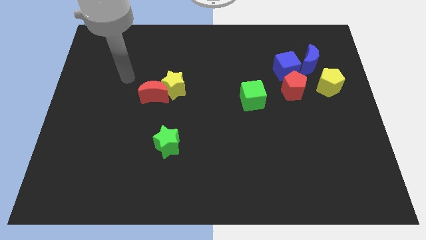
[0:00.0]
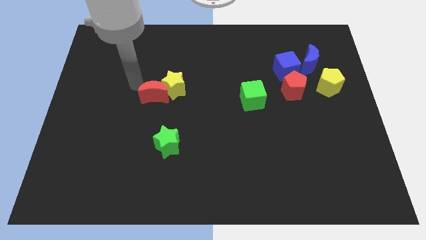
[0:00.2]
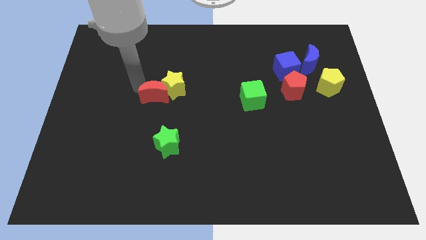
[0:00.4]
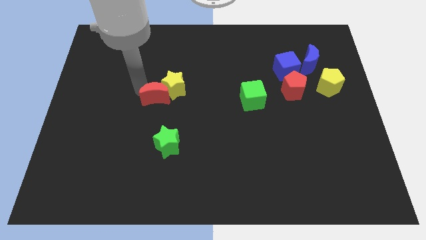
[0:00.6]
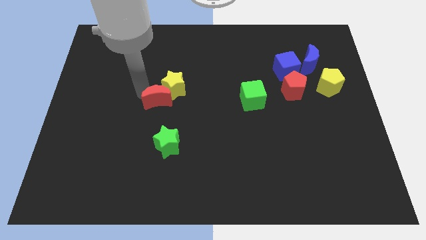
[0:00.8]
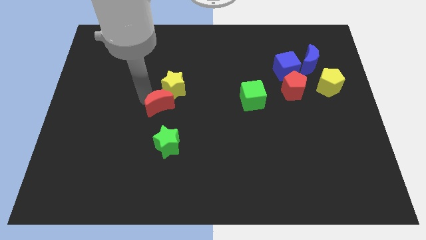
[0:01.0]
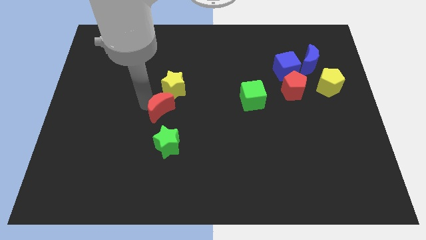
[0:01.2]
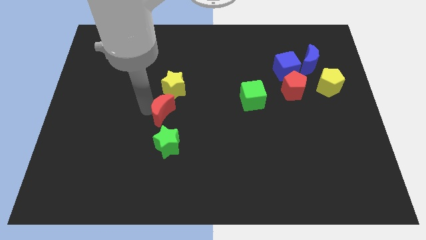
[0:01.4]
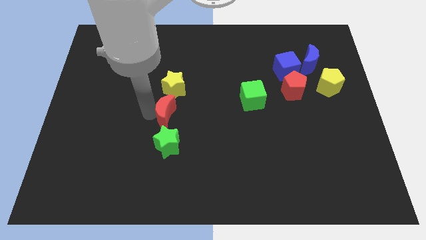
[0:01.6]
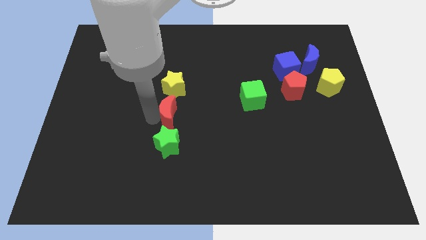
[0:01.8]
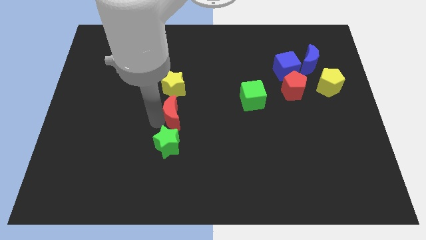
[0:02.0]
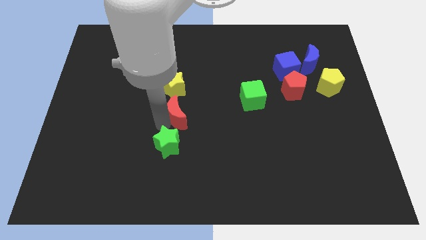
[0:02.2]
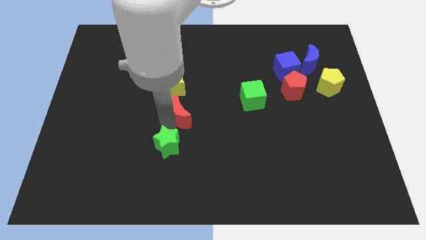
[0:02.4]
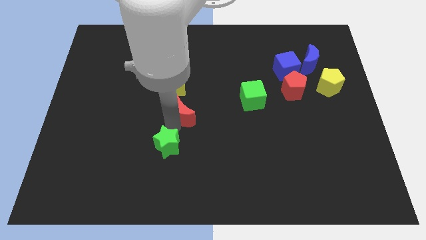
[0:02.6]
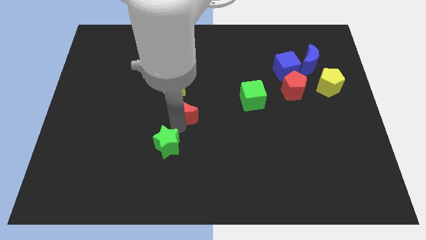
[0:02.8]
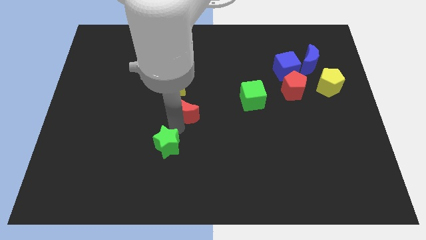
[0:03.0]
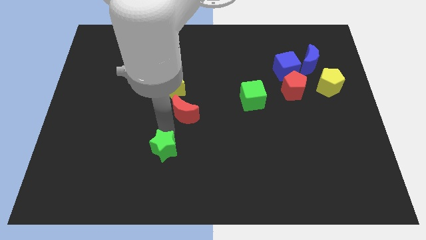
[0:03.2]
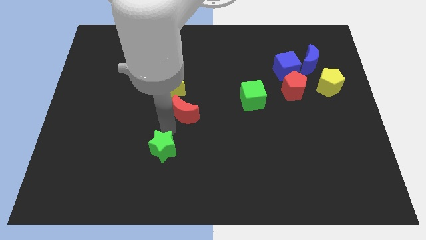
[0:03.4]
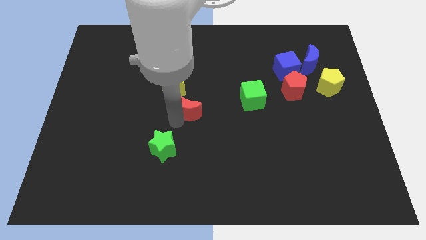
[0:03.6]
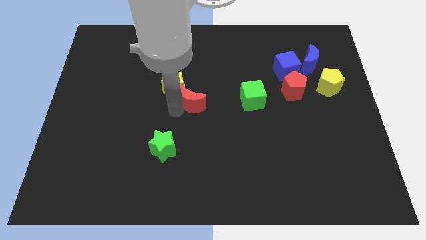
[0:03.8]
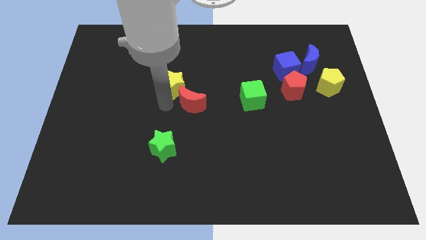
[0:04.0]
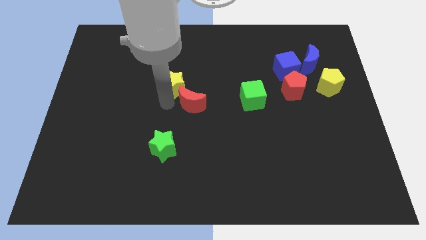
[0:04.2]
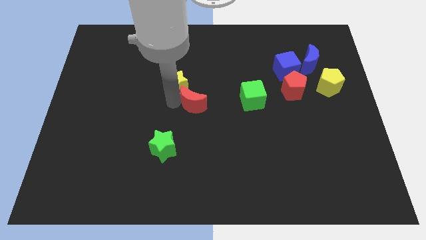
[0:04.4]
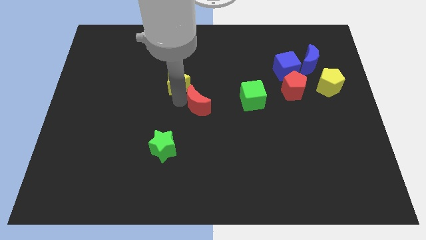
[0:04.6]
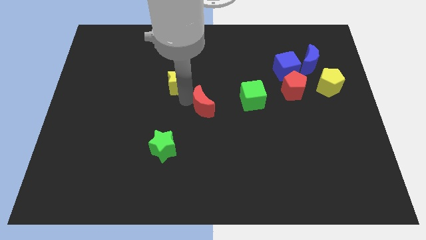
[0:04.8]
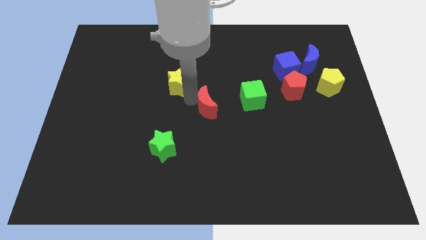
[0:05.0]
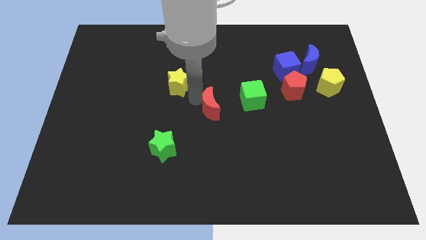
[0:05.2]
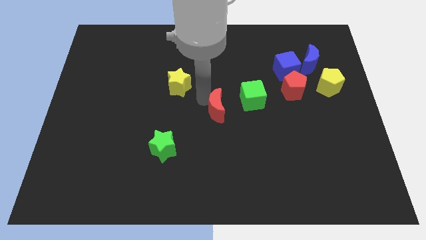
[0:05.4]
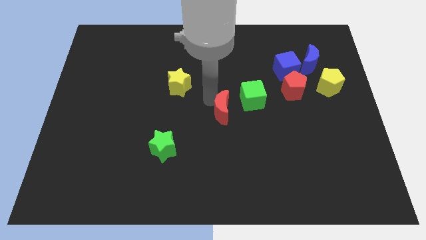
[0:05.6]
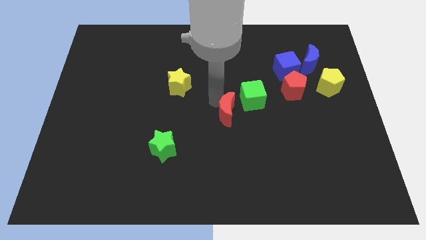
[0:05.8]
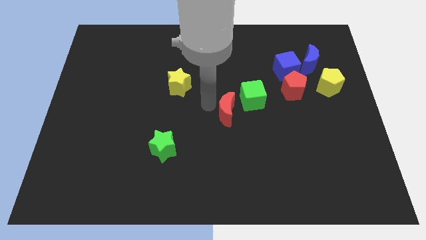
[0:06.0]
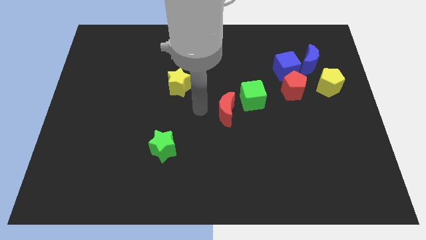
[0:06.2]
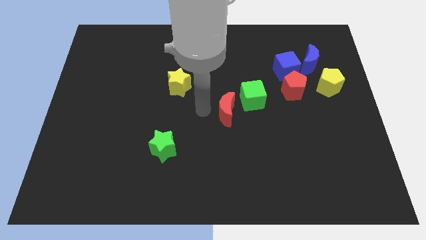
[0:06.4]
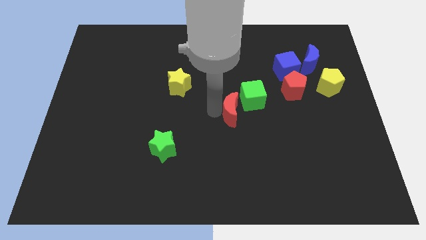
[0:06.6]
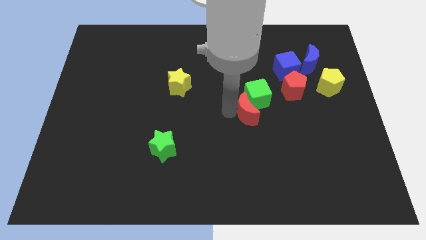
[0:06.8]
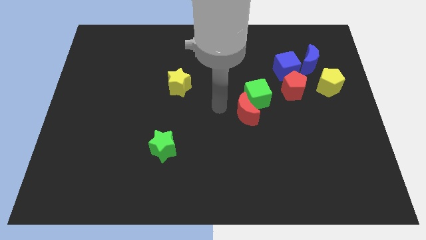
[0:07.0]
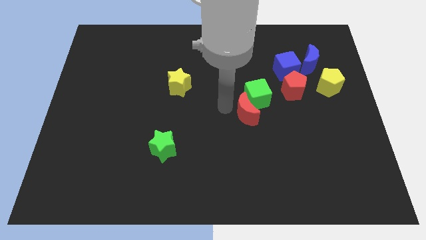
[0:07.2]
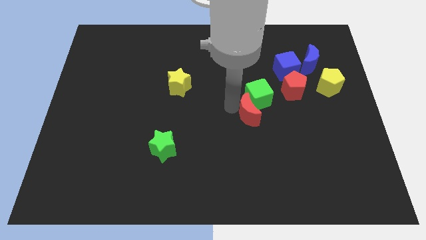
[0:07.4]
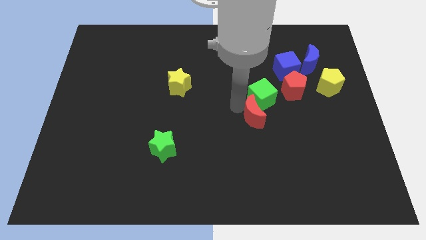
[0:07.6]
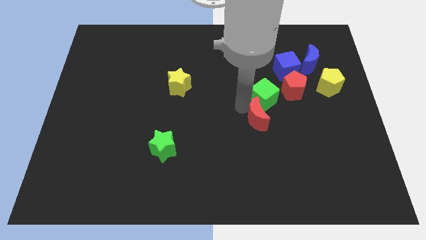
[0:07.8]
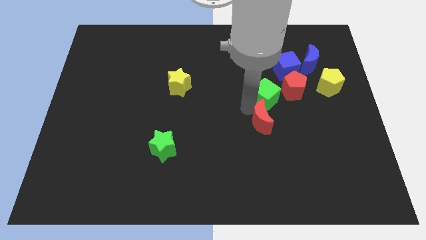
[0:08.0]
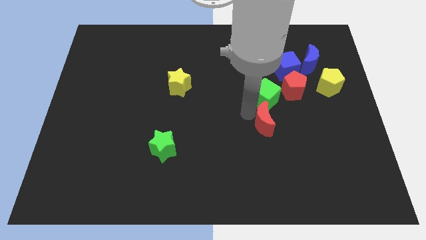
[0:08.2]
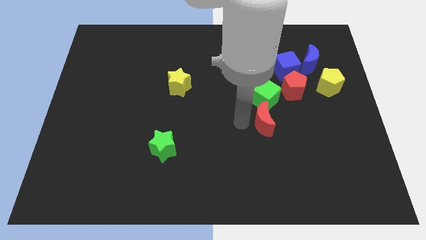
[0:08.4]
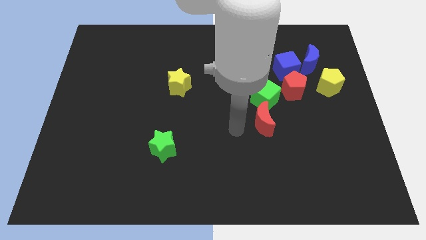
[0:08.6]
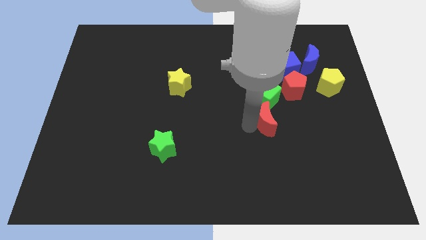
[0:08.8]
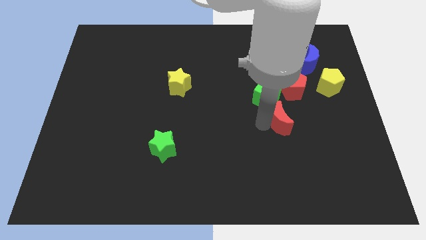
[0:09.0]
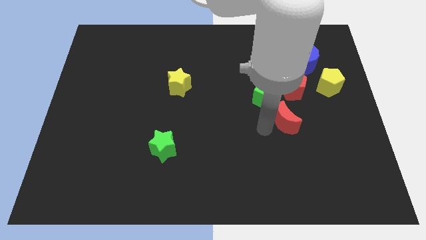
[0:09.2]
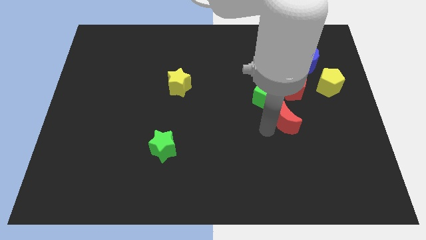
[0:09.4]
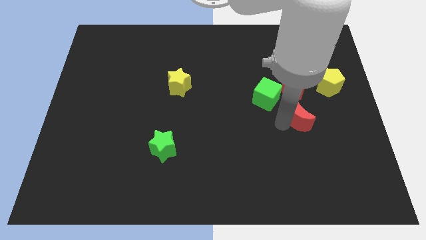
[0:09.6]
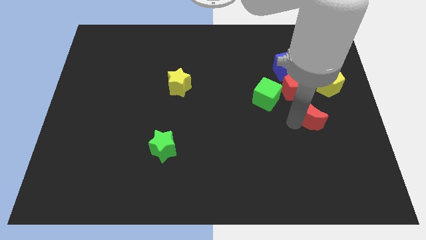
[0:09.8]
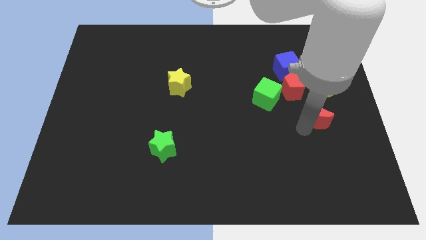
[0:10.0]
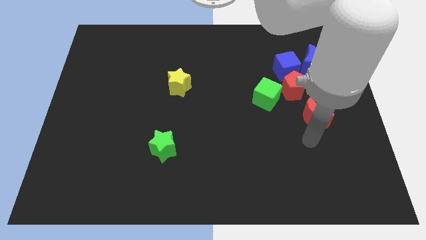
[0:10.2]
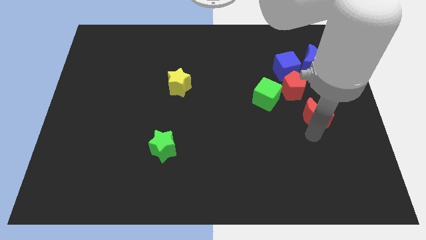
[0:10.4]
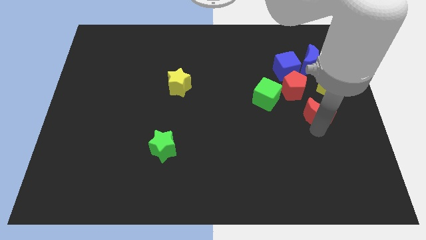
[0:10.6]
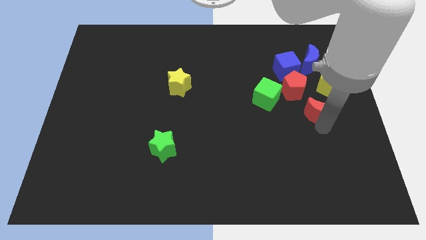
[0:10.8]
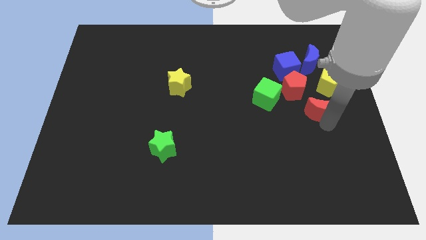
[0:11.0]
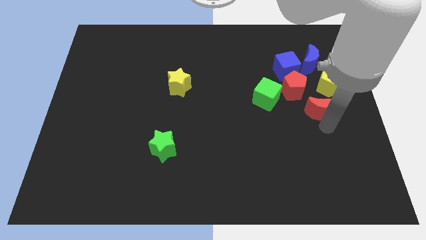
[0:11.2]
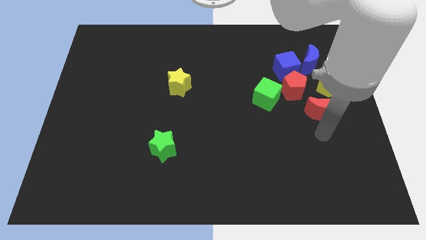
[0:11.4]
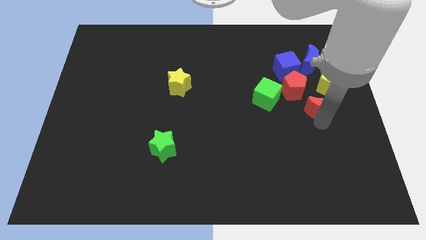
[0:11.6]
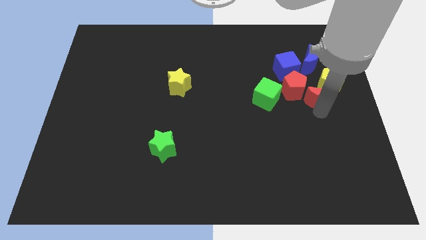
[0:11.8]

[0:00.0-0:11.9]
put the red moon next to the yellow pentagon

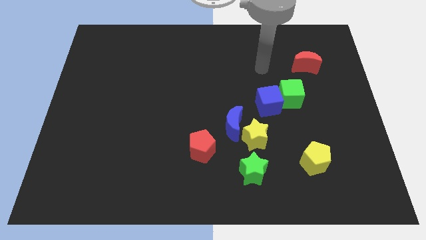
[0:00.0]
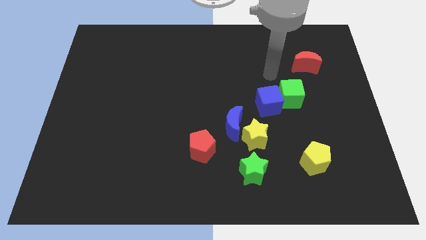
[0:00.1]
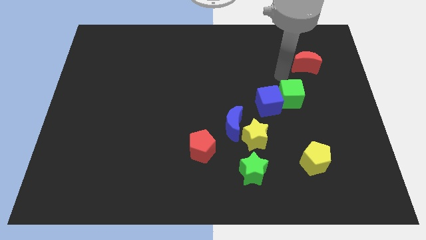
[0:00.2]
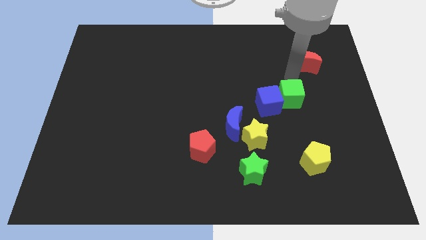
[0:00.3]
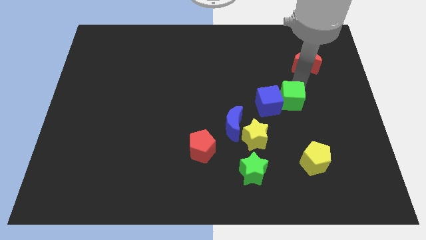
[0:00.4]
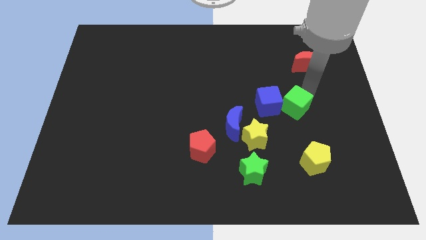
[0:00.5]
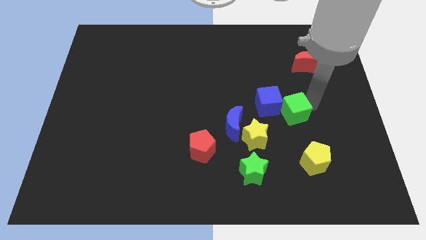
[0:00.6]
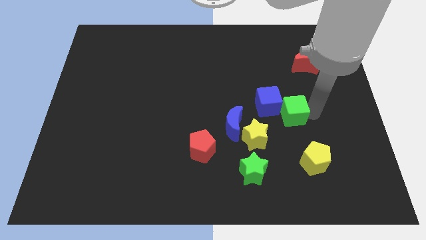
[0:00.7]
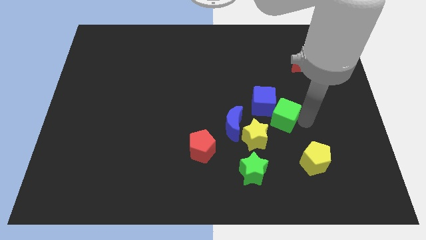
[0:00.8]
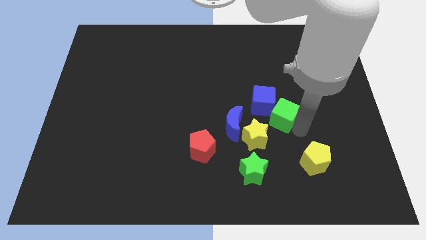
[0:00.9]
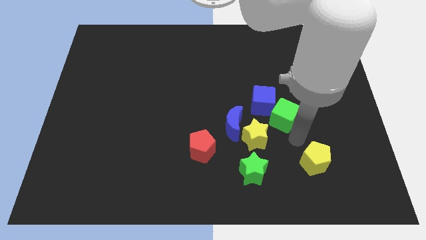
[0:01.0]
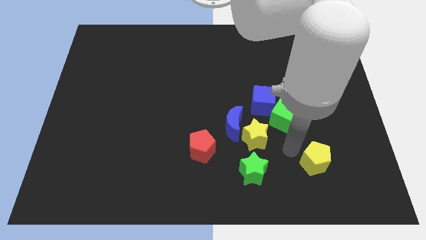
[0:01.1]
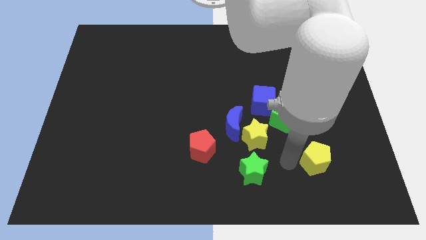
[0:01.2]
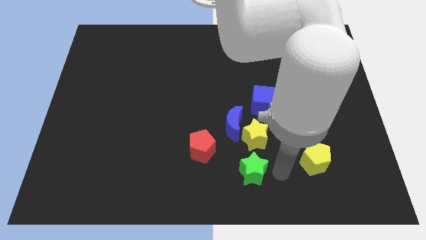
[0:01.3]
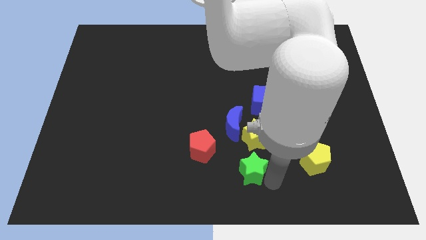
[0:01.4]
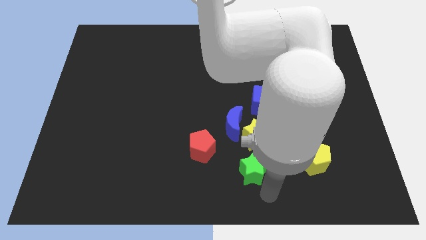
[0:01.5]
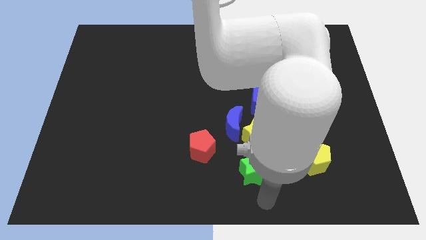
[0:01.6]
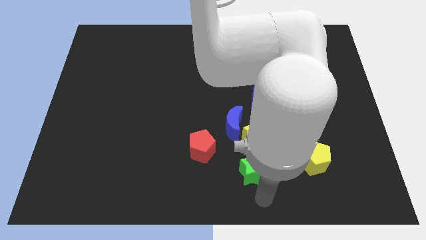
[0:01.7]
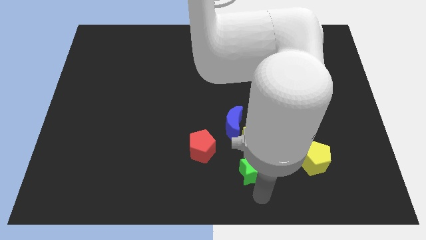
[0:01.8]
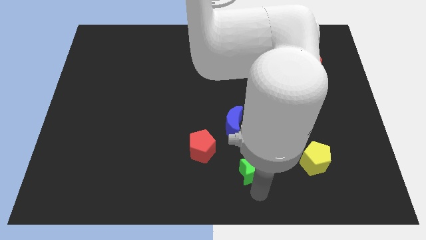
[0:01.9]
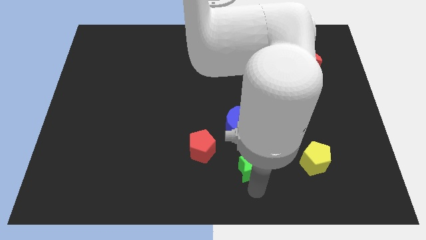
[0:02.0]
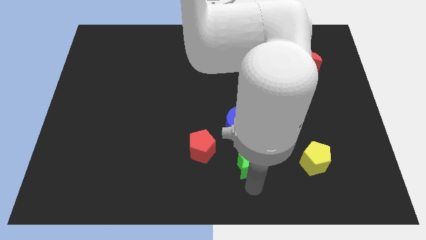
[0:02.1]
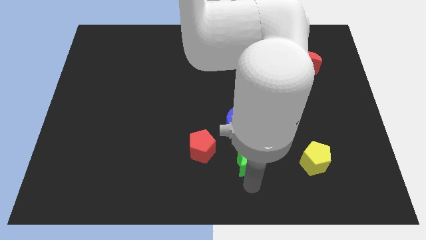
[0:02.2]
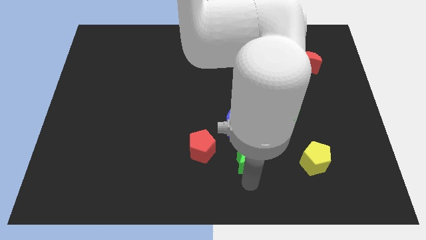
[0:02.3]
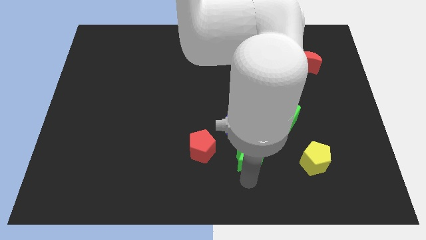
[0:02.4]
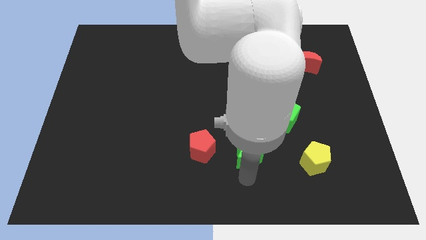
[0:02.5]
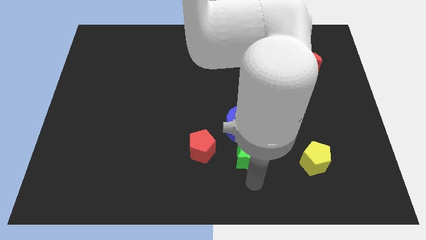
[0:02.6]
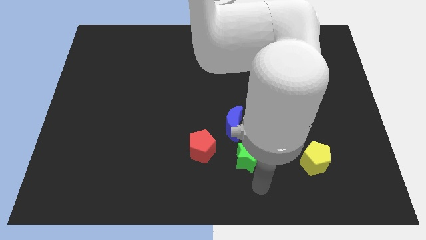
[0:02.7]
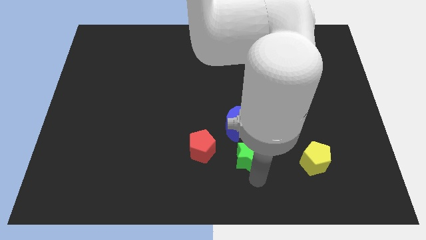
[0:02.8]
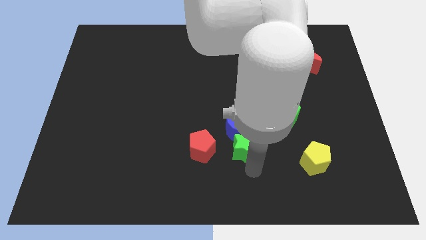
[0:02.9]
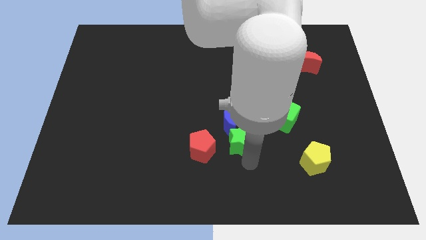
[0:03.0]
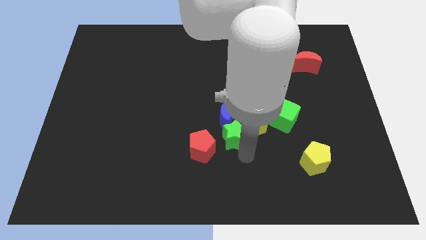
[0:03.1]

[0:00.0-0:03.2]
move the green star next to the blue moon
